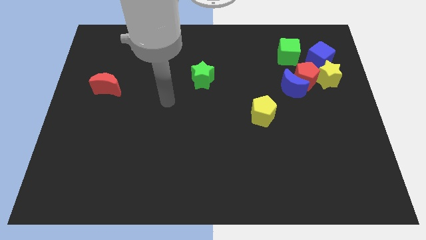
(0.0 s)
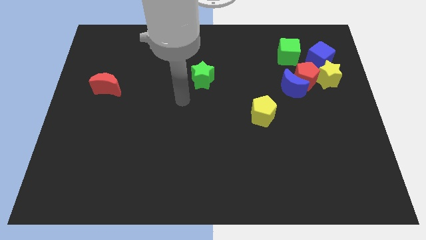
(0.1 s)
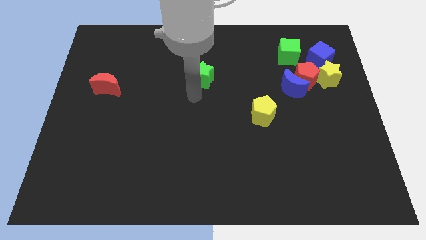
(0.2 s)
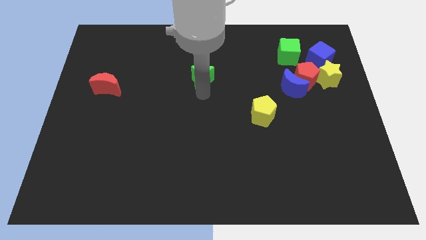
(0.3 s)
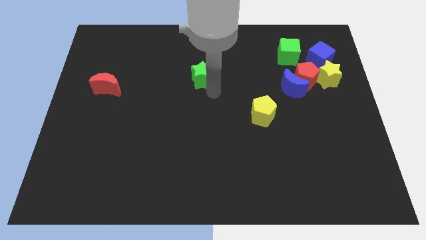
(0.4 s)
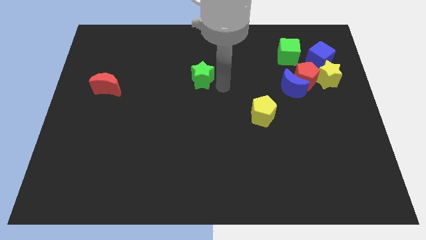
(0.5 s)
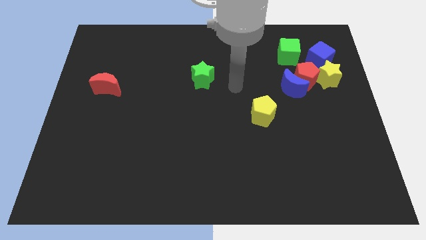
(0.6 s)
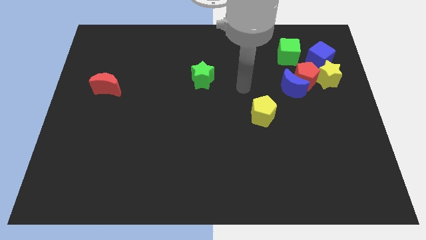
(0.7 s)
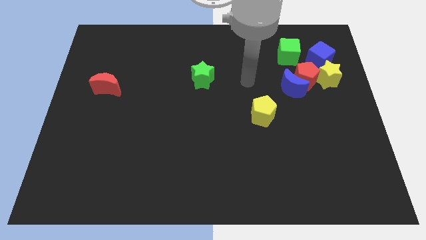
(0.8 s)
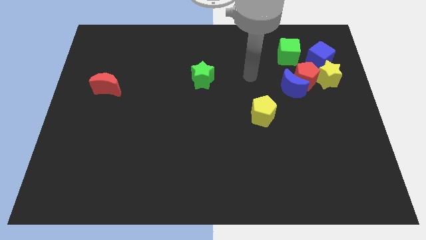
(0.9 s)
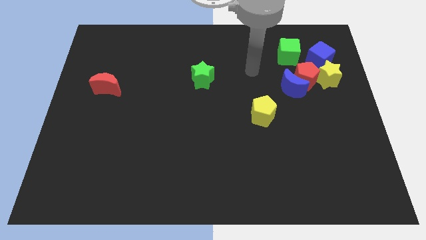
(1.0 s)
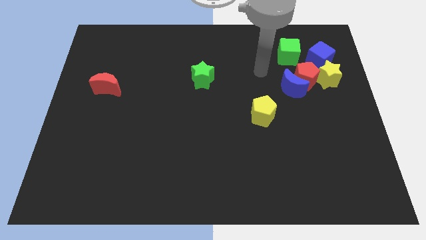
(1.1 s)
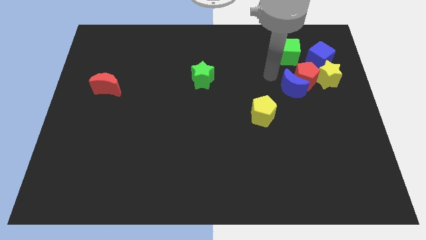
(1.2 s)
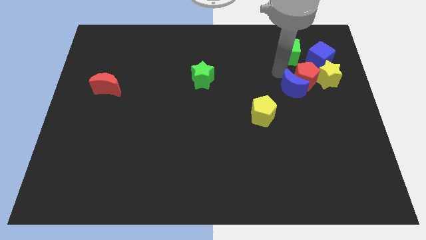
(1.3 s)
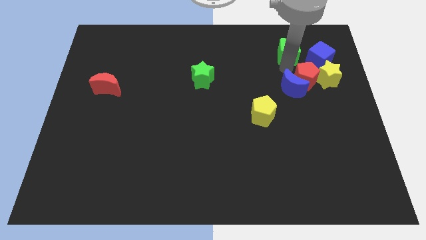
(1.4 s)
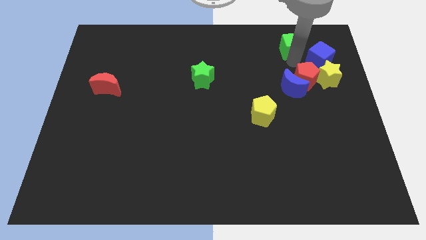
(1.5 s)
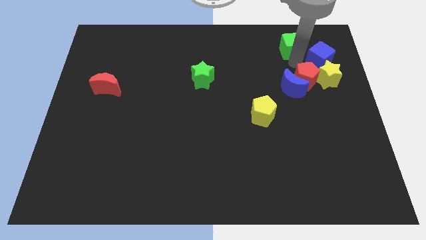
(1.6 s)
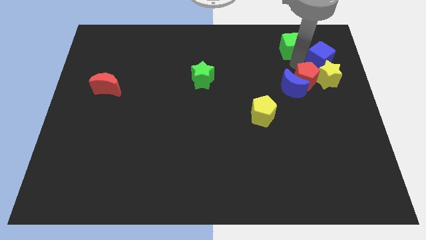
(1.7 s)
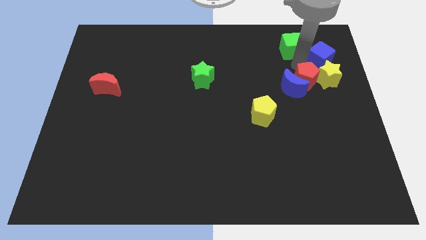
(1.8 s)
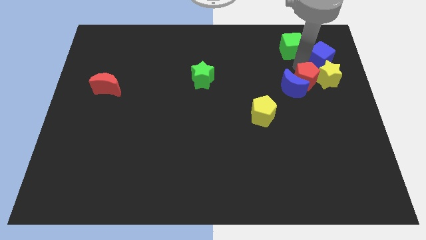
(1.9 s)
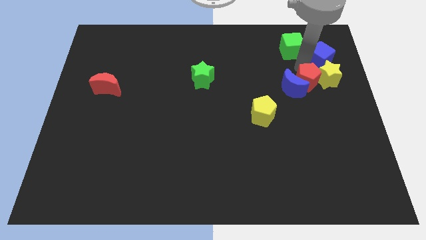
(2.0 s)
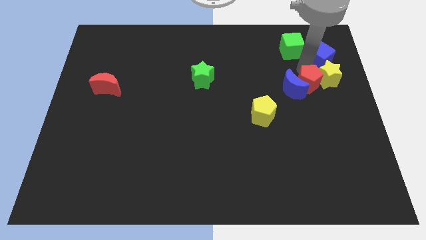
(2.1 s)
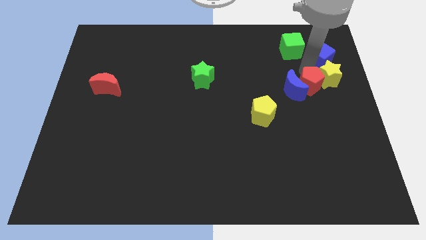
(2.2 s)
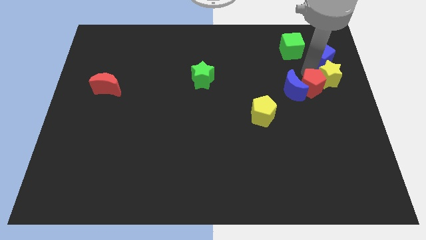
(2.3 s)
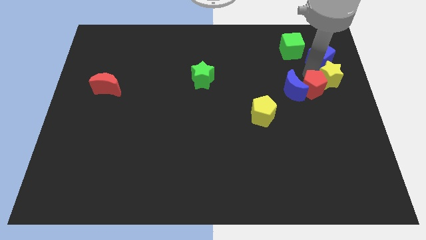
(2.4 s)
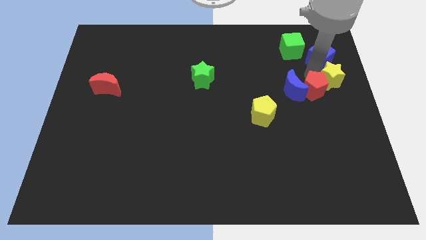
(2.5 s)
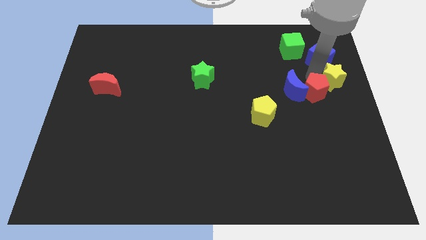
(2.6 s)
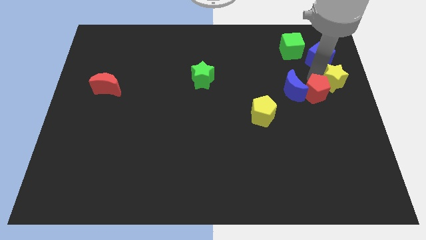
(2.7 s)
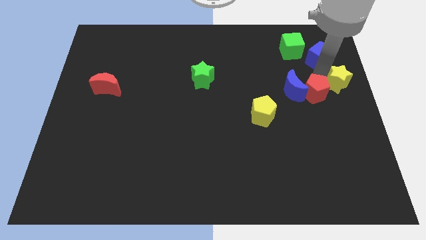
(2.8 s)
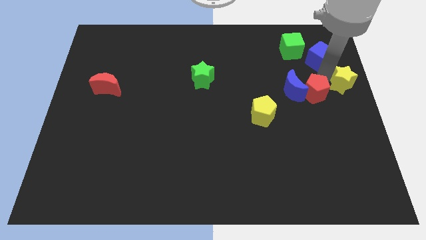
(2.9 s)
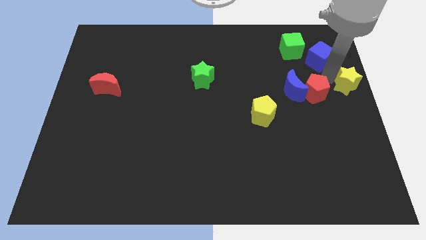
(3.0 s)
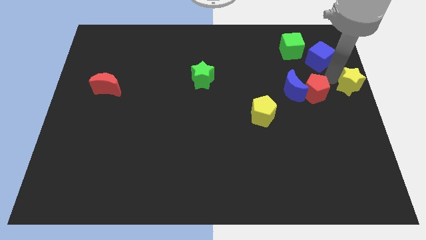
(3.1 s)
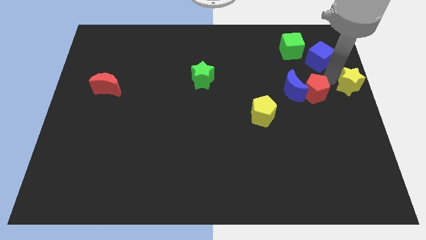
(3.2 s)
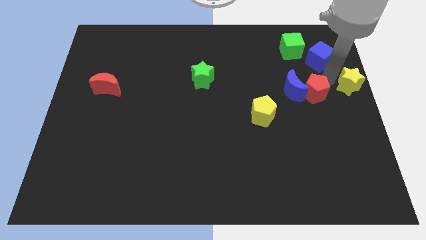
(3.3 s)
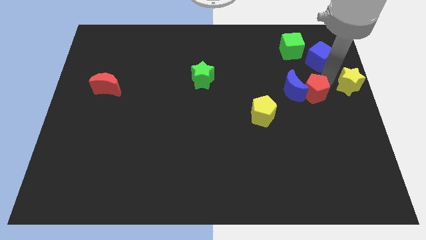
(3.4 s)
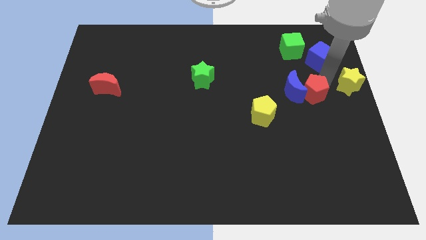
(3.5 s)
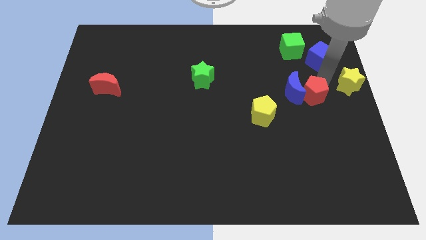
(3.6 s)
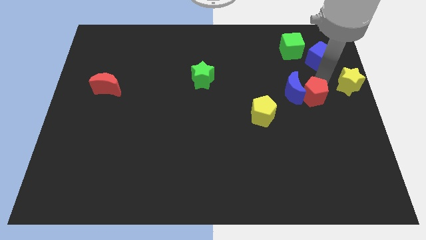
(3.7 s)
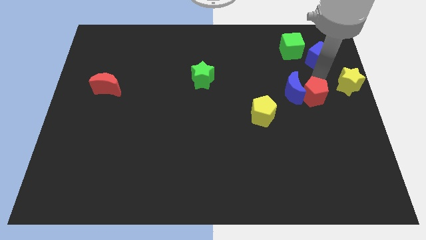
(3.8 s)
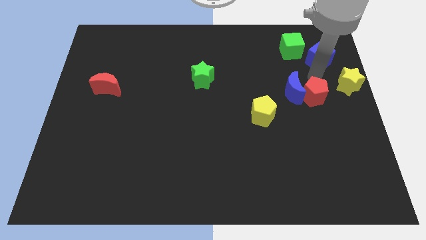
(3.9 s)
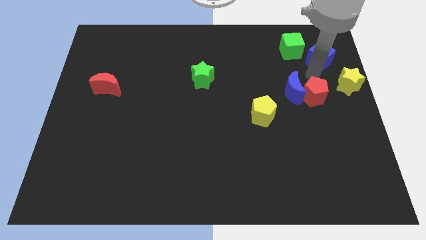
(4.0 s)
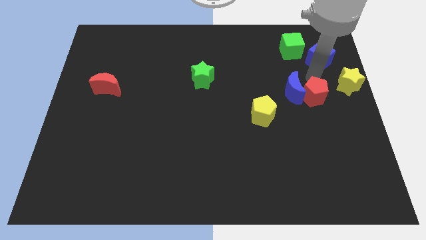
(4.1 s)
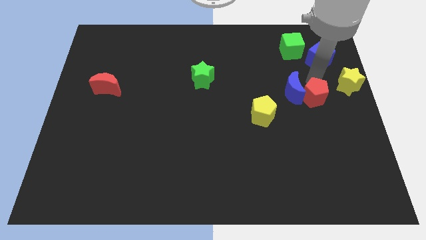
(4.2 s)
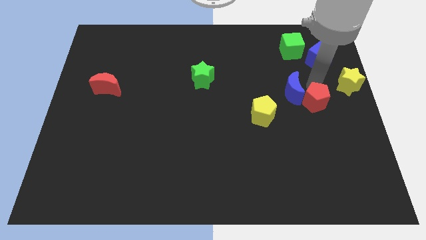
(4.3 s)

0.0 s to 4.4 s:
separate the red pentagon from the group

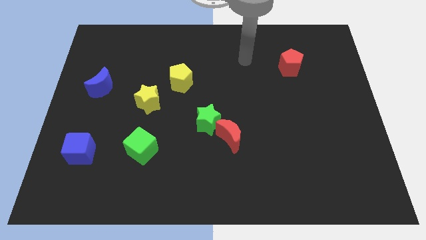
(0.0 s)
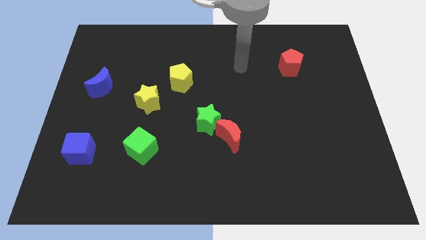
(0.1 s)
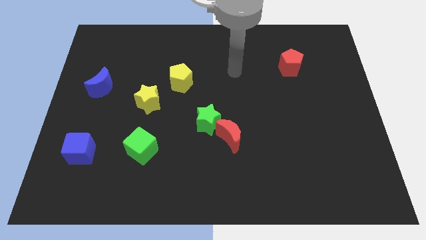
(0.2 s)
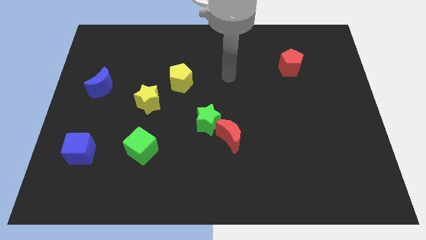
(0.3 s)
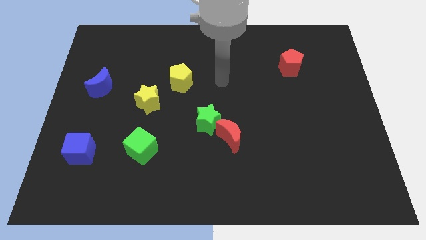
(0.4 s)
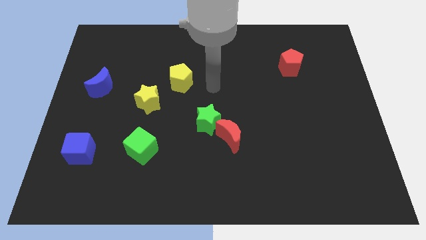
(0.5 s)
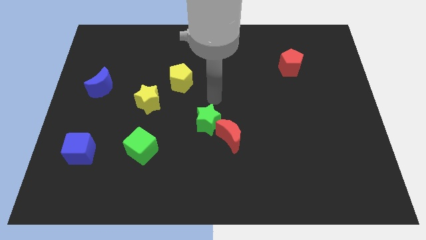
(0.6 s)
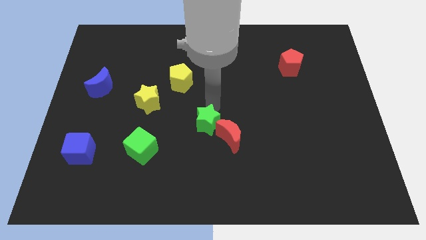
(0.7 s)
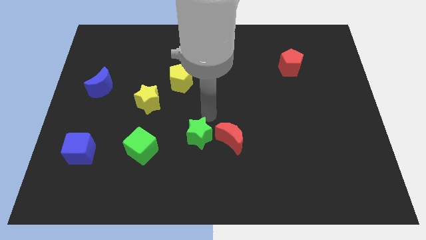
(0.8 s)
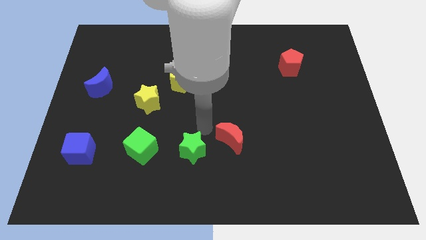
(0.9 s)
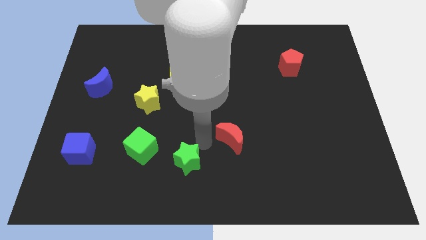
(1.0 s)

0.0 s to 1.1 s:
separate the red moon from the green star

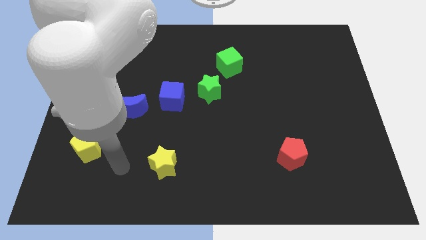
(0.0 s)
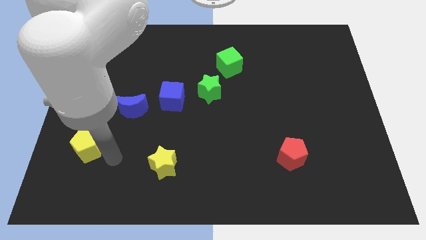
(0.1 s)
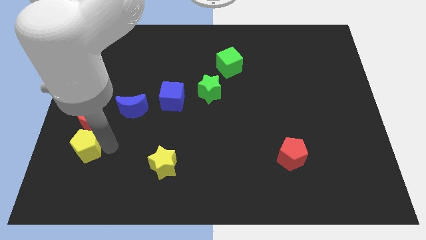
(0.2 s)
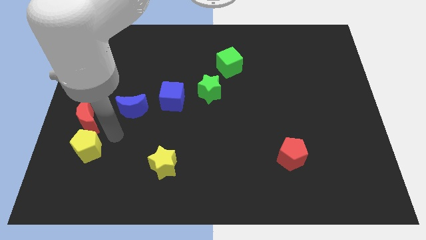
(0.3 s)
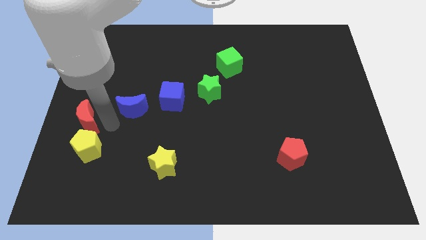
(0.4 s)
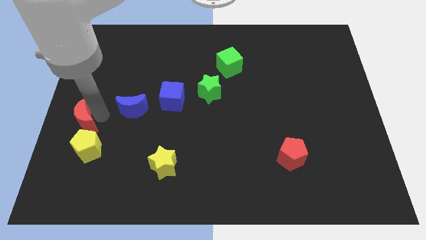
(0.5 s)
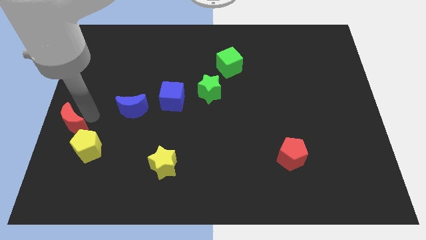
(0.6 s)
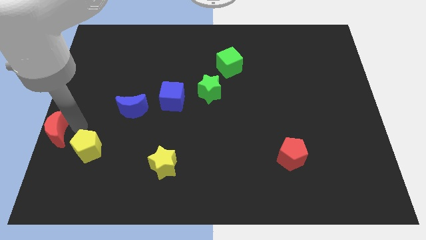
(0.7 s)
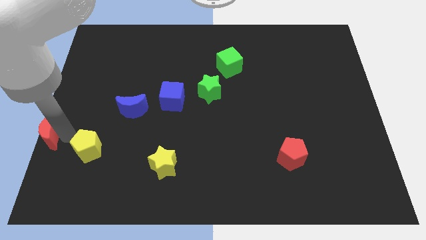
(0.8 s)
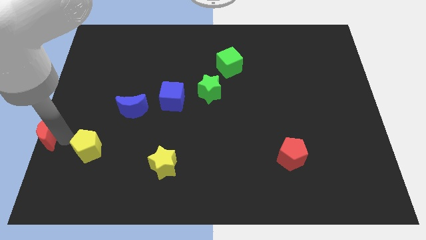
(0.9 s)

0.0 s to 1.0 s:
pull the yellow pentagon apart from the red moon

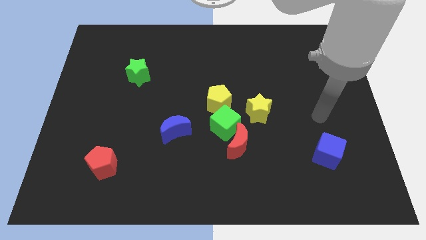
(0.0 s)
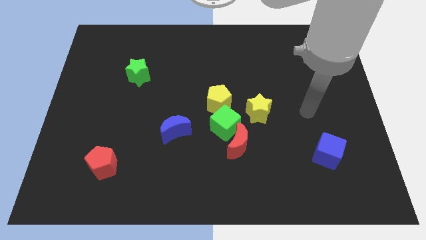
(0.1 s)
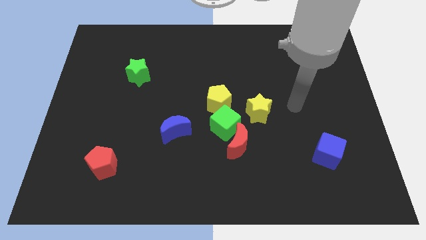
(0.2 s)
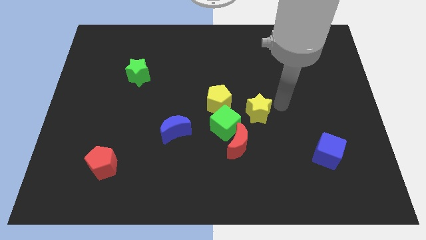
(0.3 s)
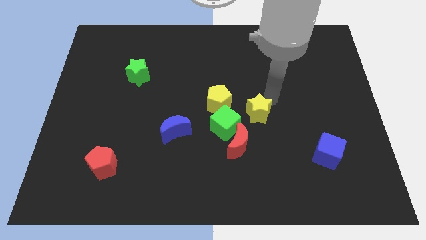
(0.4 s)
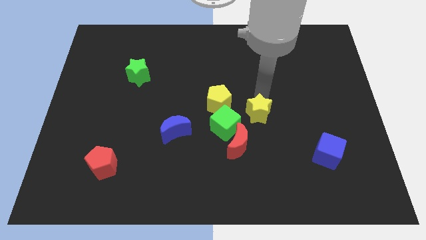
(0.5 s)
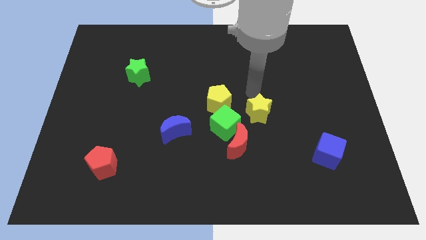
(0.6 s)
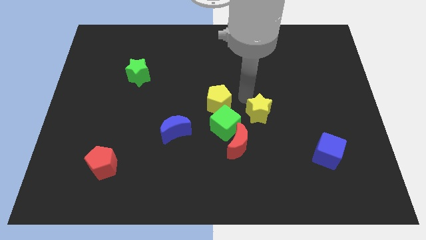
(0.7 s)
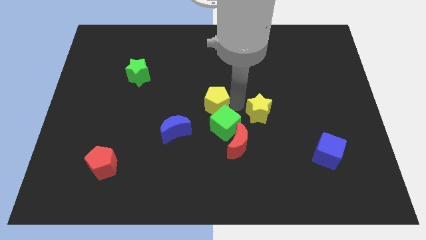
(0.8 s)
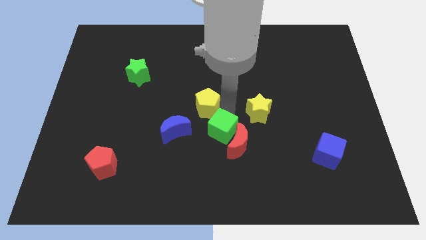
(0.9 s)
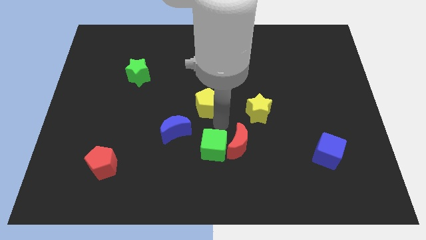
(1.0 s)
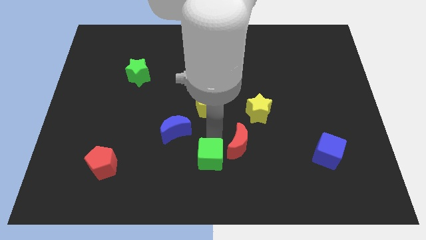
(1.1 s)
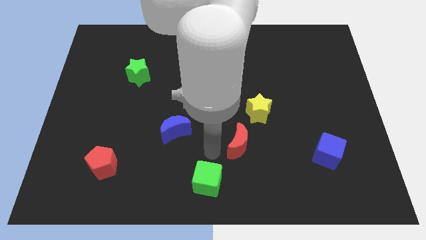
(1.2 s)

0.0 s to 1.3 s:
pull the red moon apart from the green cube

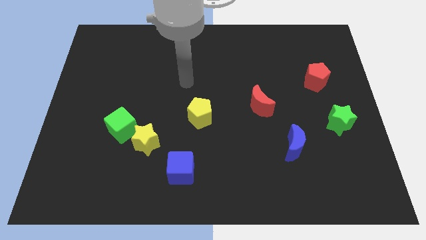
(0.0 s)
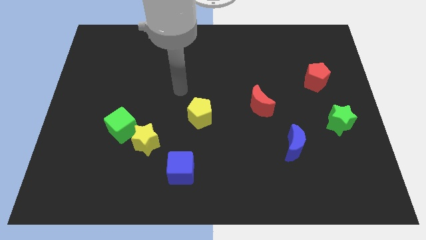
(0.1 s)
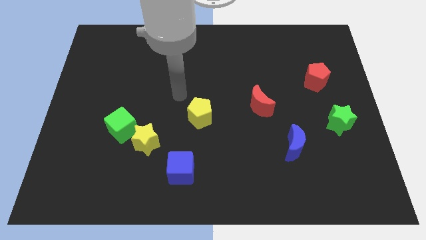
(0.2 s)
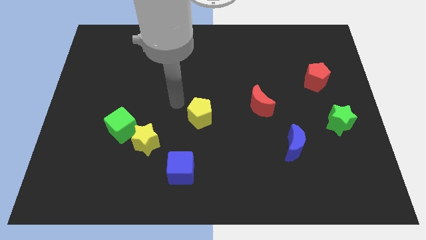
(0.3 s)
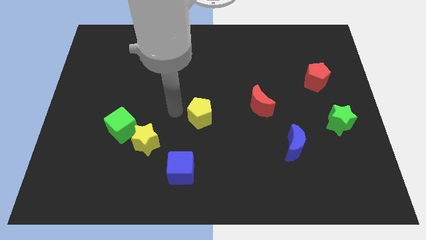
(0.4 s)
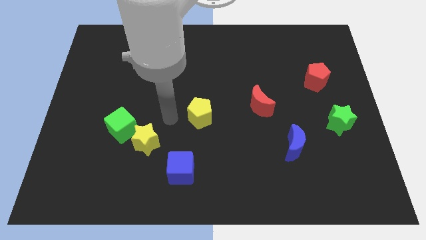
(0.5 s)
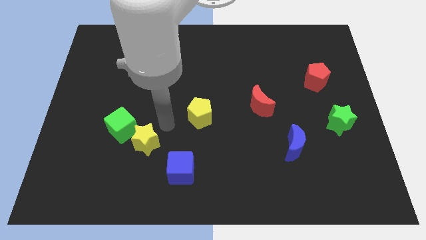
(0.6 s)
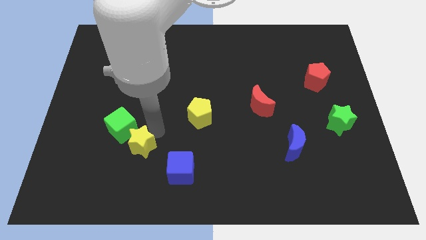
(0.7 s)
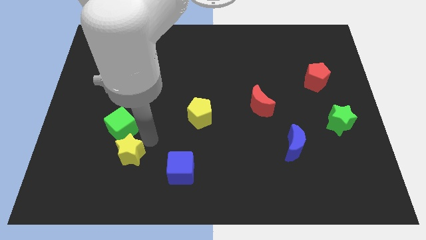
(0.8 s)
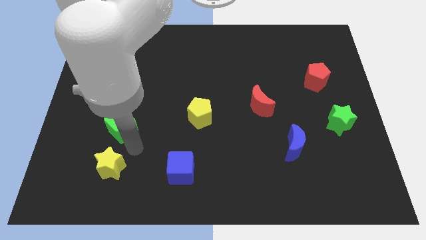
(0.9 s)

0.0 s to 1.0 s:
pull the green cube apart from the yellow star

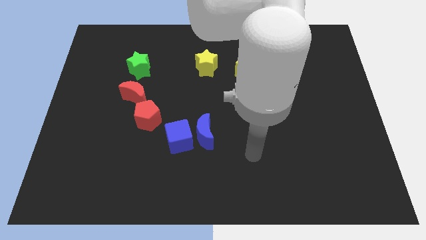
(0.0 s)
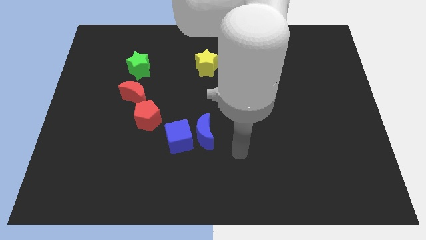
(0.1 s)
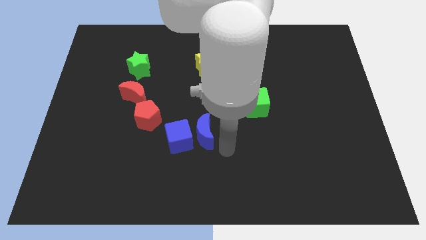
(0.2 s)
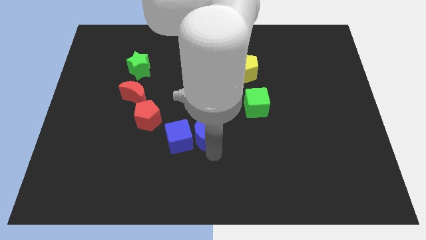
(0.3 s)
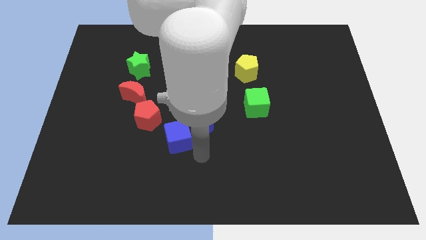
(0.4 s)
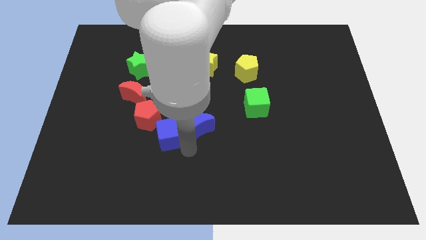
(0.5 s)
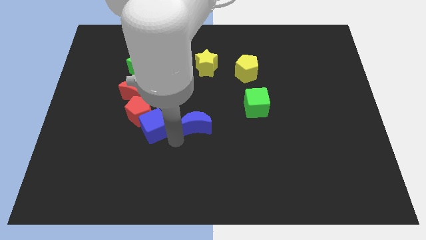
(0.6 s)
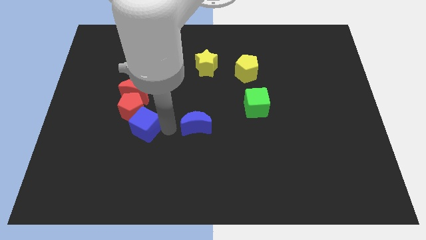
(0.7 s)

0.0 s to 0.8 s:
move the blue moon away from the blue cube
